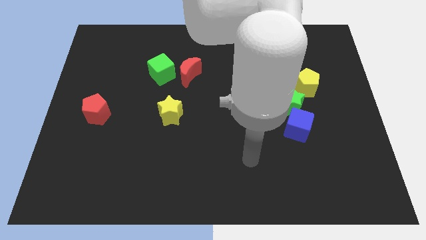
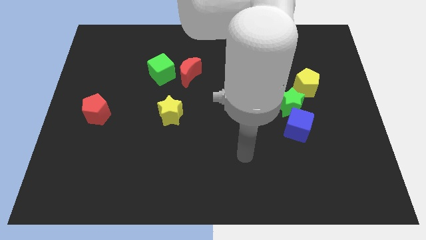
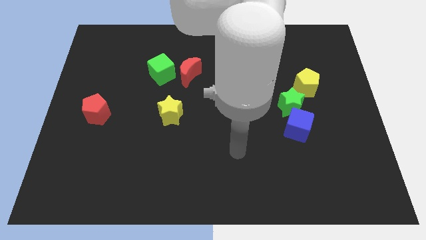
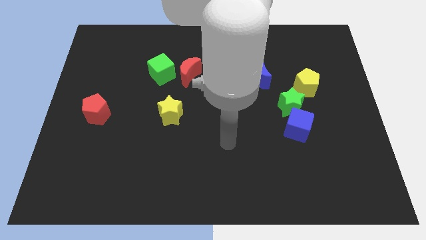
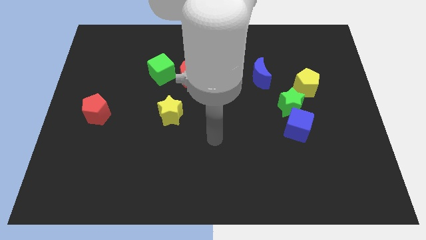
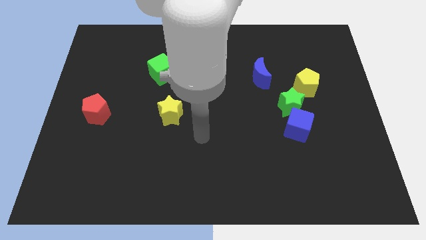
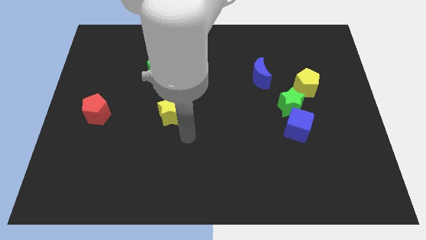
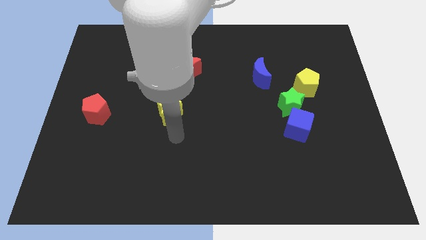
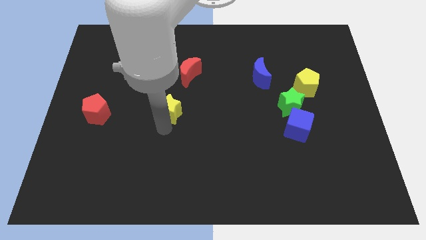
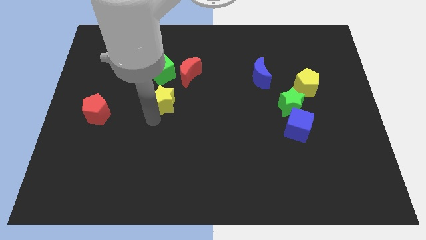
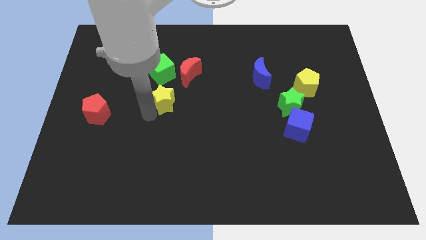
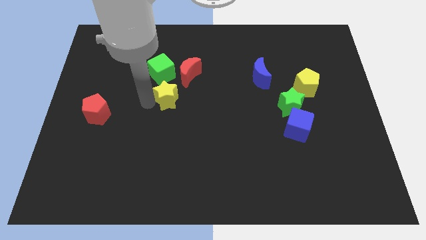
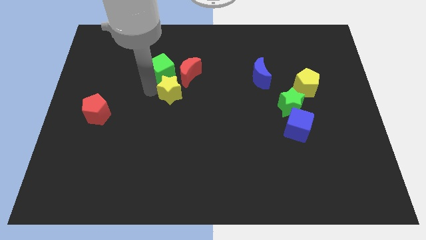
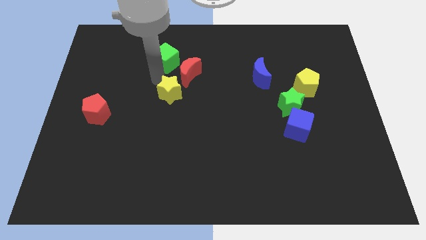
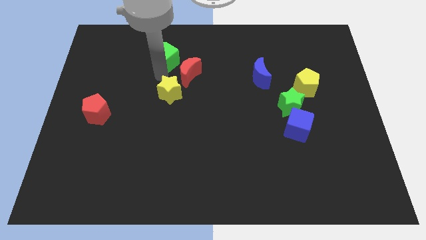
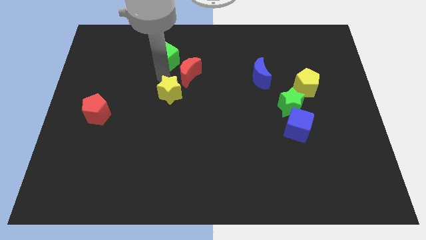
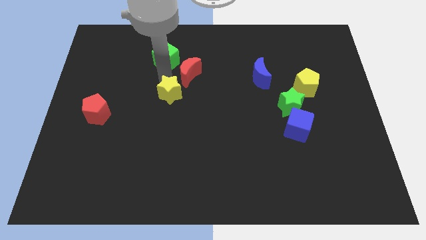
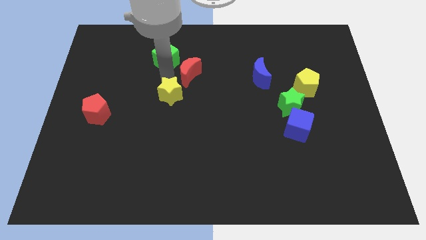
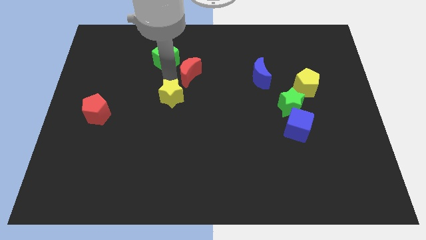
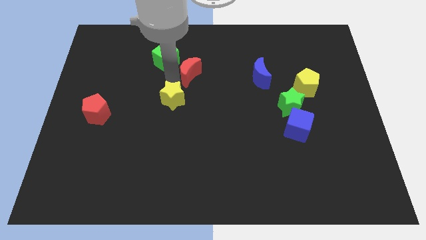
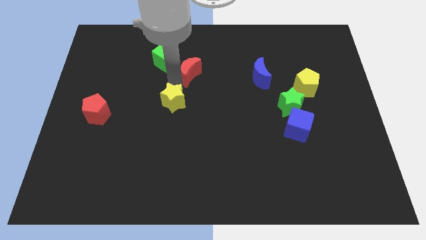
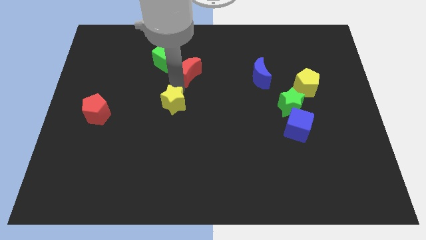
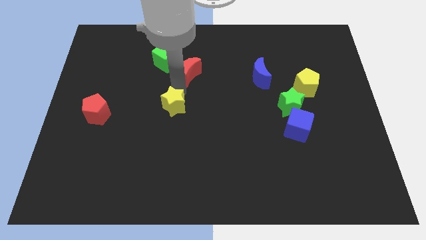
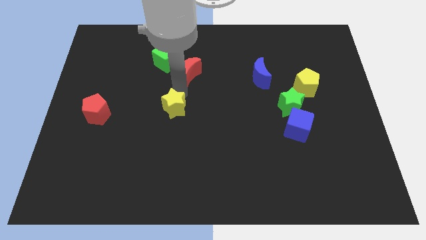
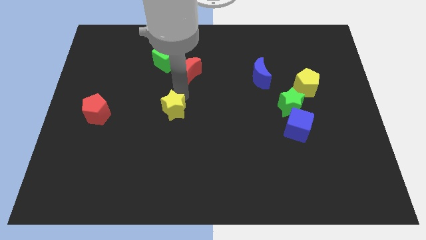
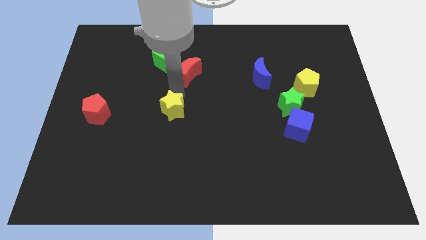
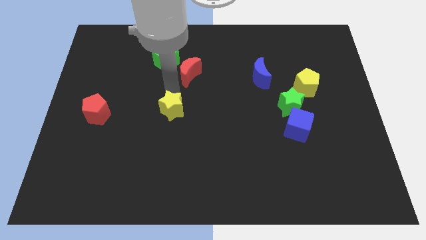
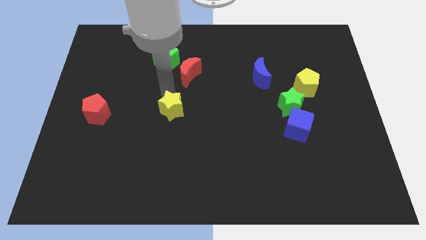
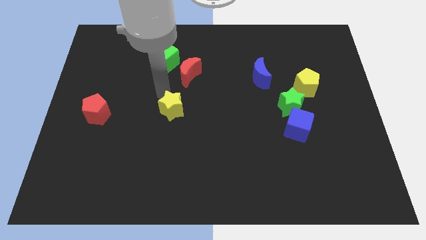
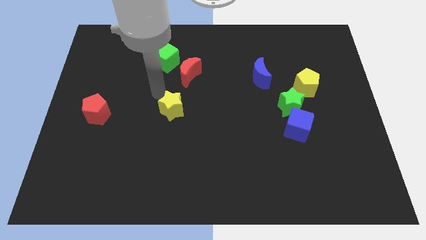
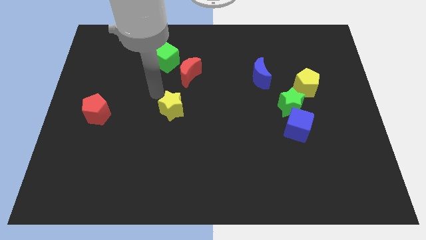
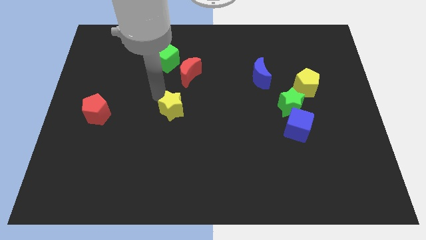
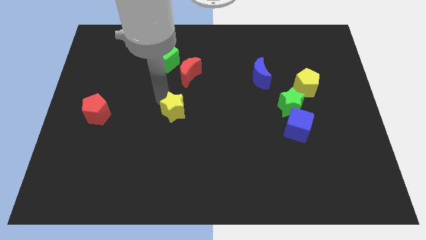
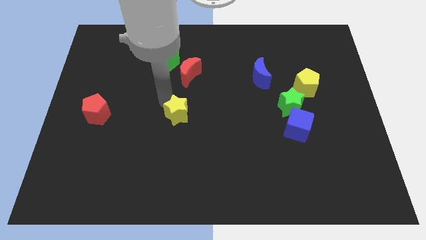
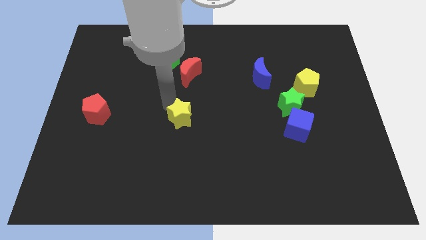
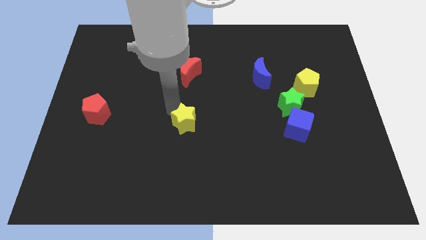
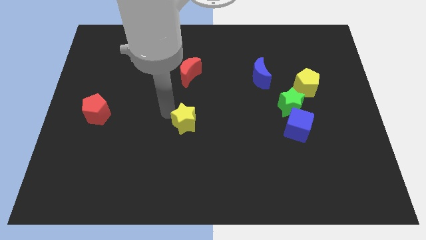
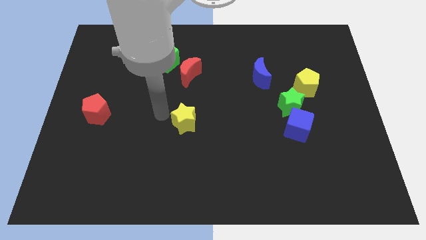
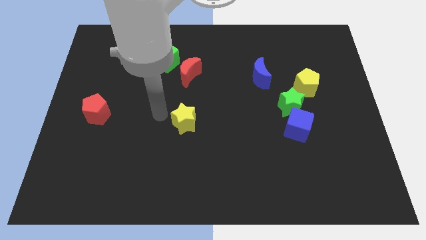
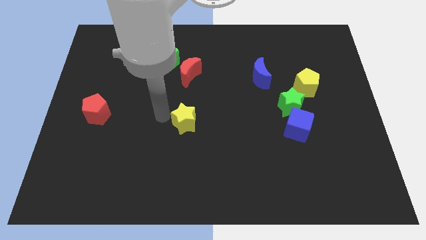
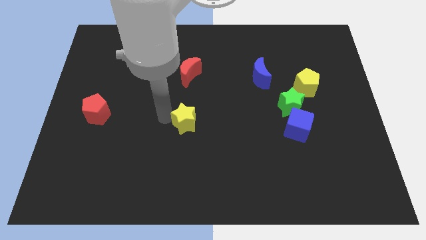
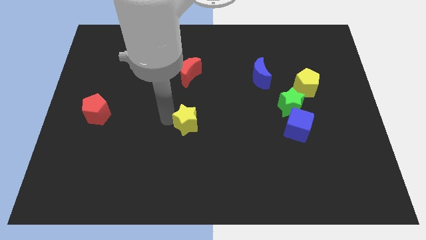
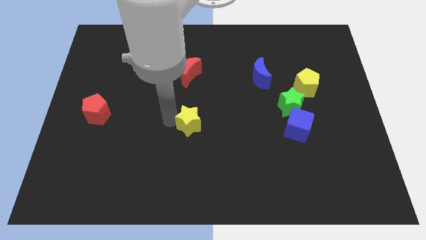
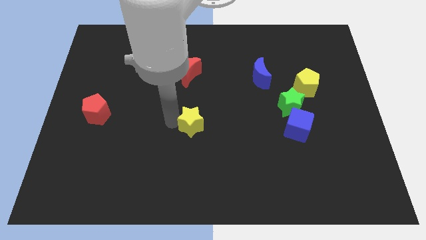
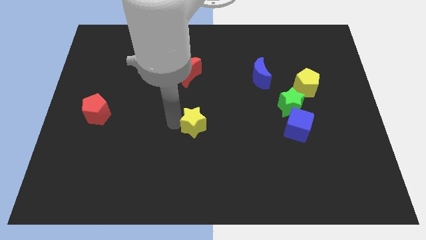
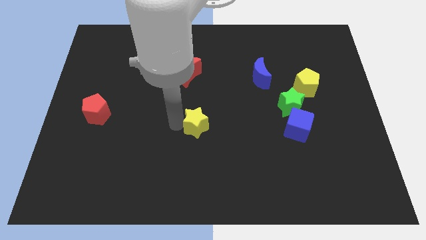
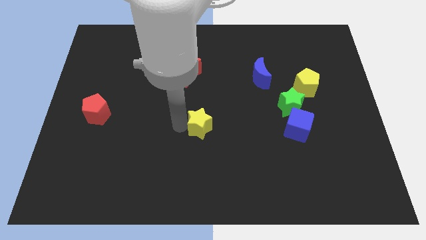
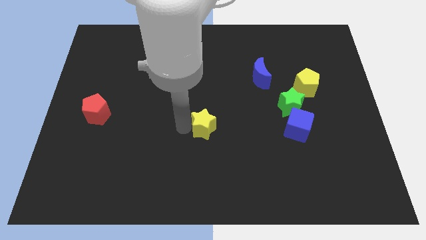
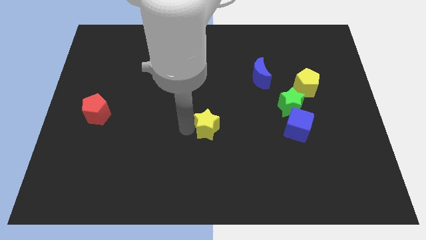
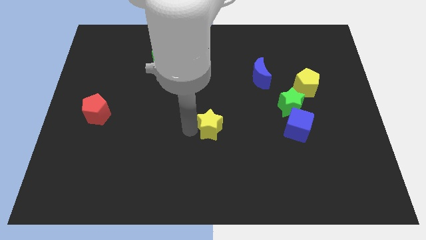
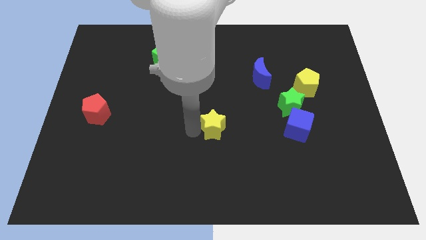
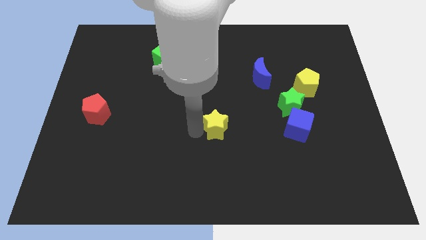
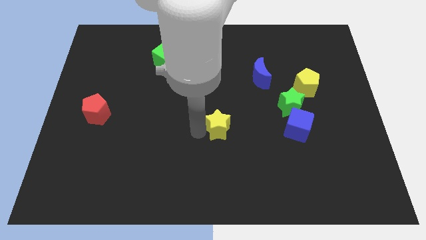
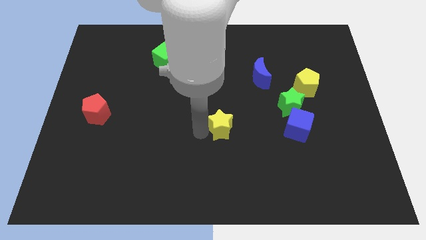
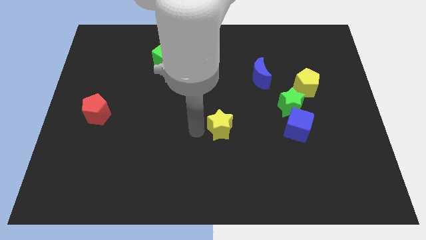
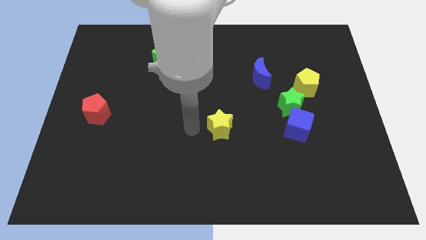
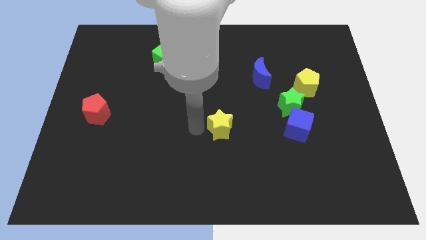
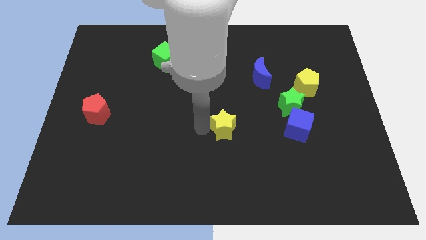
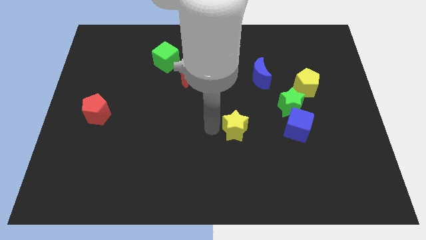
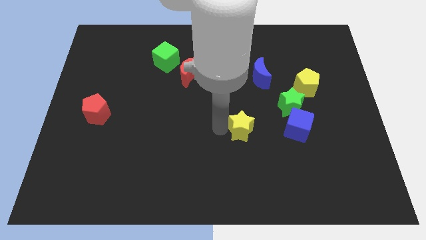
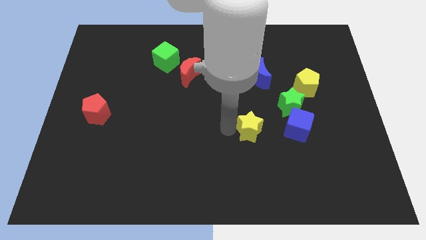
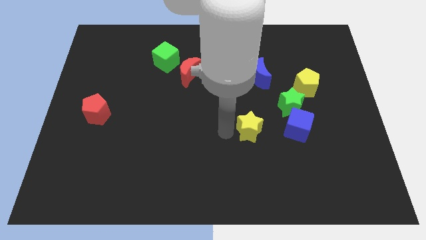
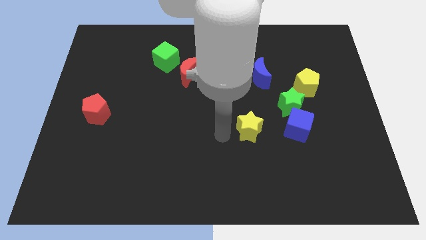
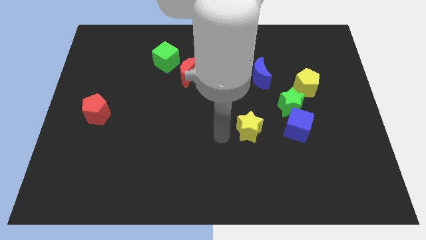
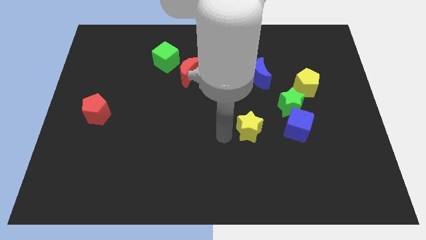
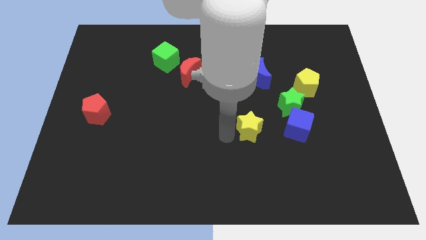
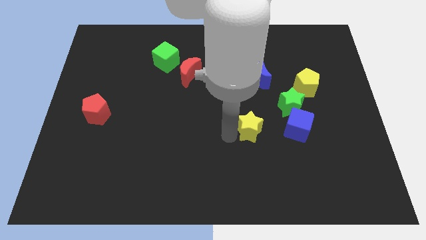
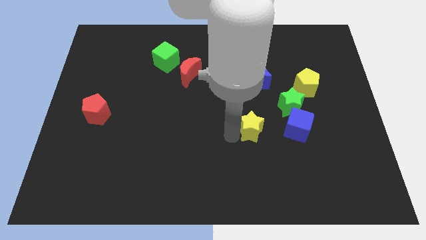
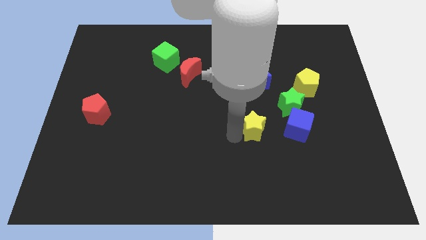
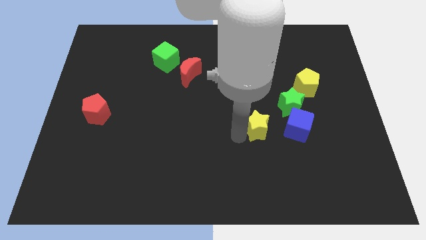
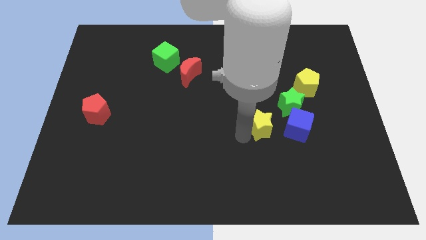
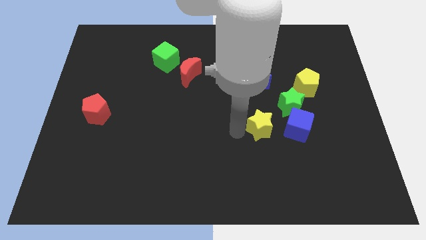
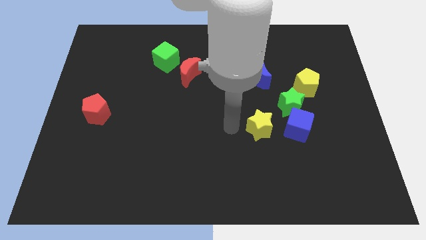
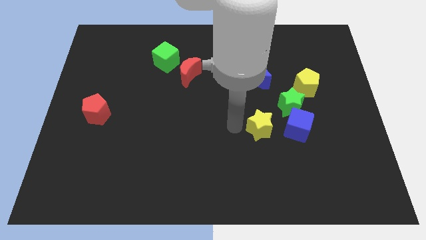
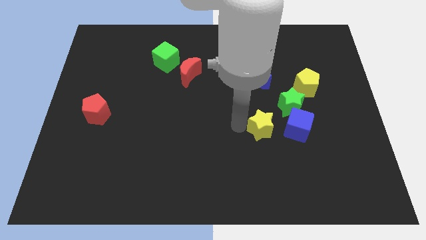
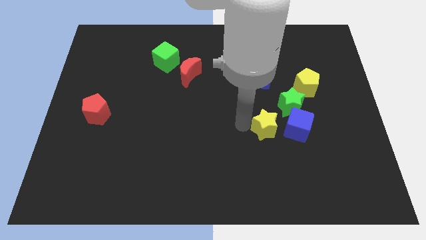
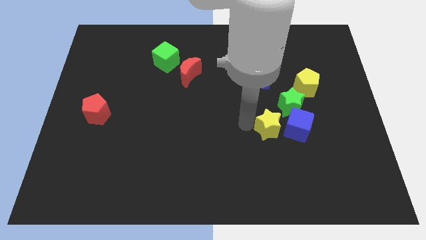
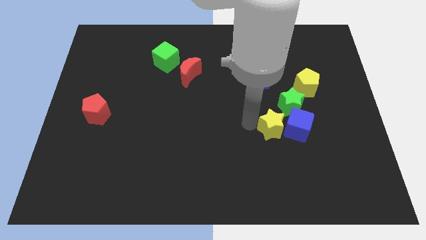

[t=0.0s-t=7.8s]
push the yellow star close to the blue cube
